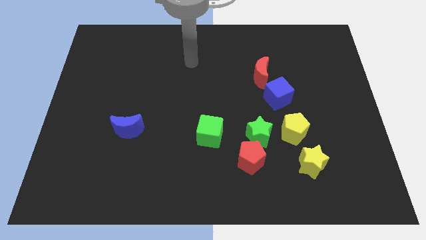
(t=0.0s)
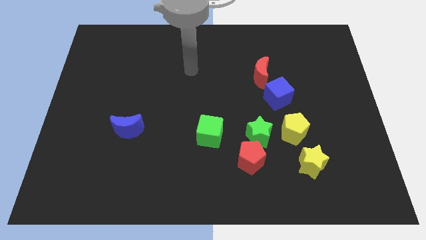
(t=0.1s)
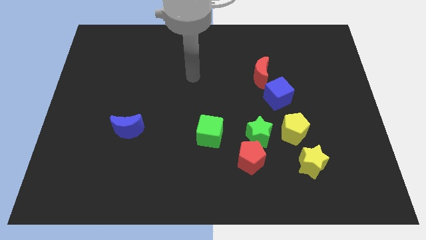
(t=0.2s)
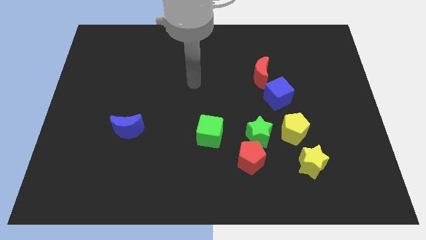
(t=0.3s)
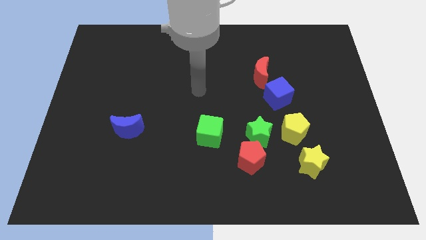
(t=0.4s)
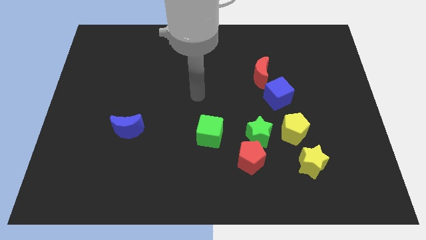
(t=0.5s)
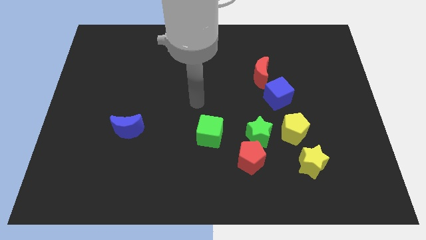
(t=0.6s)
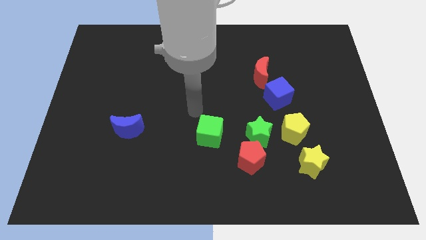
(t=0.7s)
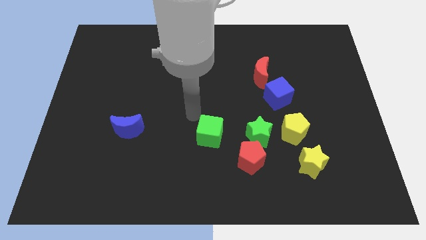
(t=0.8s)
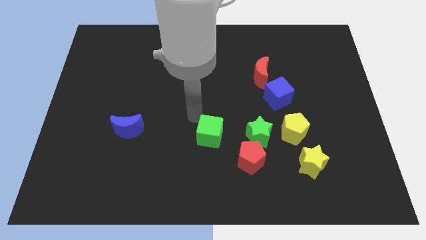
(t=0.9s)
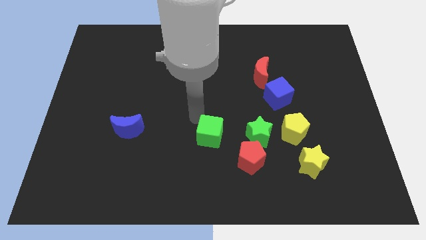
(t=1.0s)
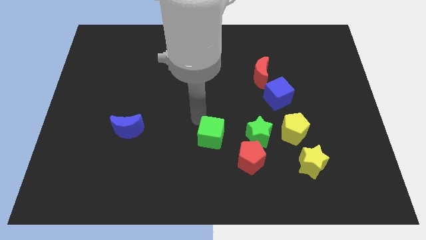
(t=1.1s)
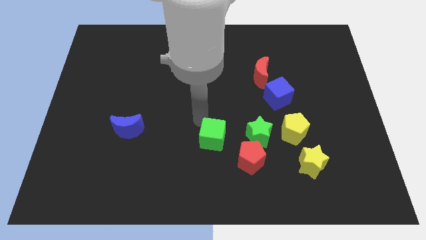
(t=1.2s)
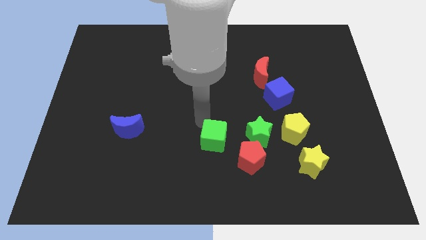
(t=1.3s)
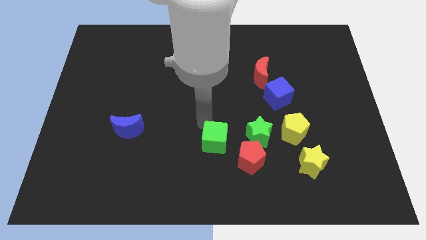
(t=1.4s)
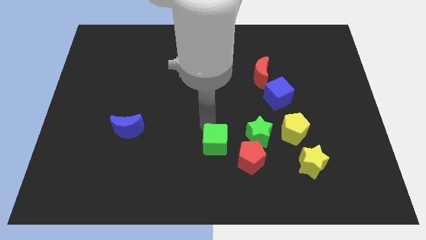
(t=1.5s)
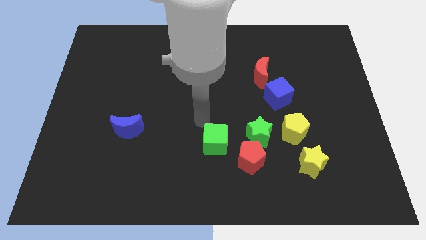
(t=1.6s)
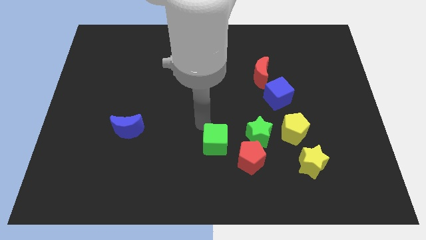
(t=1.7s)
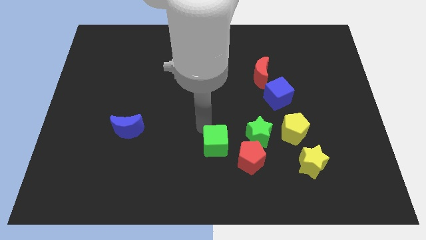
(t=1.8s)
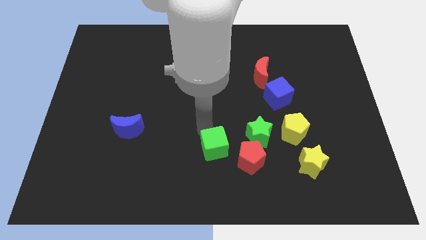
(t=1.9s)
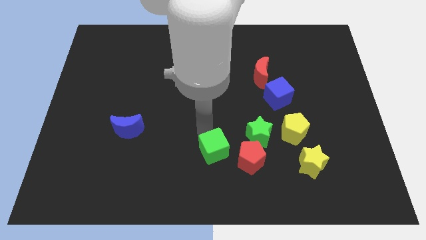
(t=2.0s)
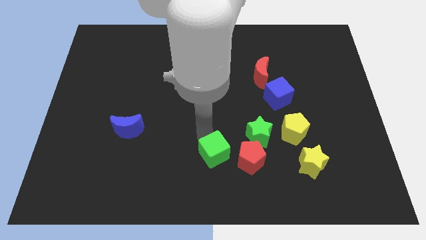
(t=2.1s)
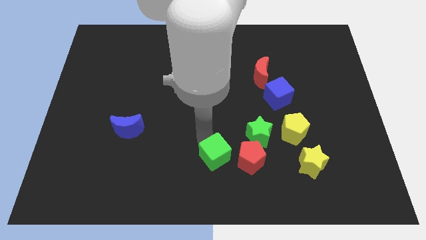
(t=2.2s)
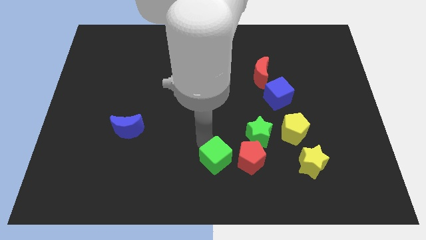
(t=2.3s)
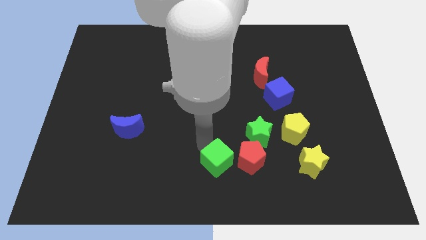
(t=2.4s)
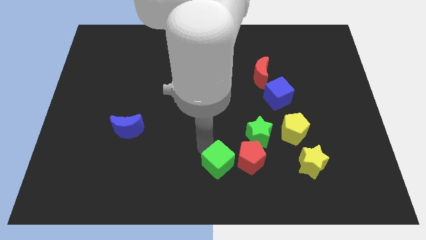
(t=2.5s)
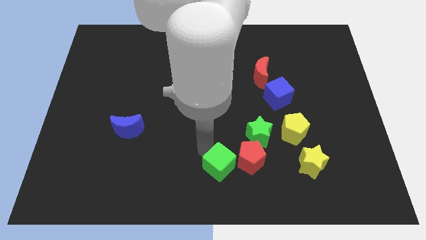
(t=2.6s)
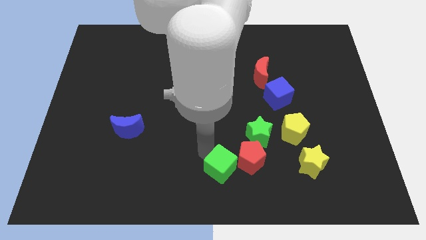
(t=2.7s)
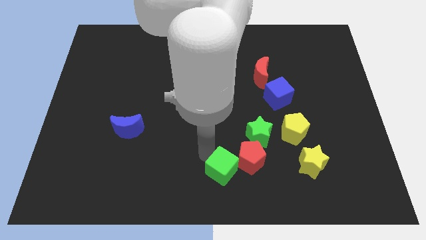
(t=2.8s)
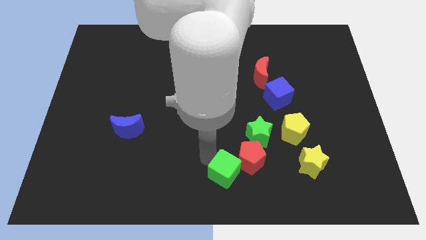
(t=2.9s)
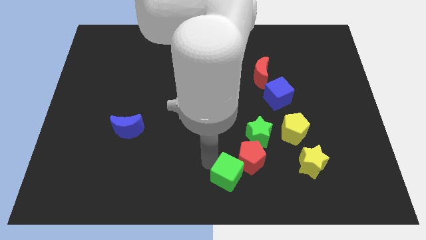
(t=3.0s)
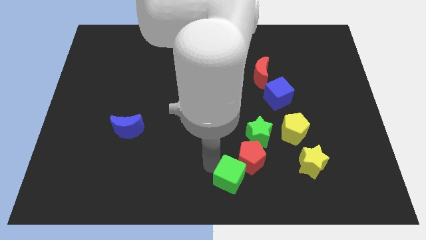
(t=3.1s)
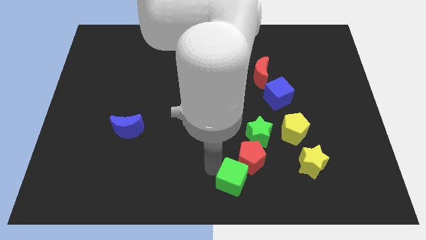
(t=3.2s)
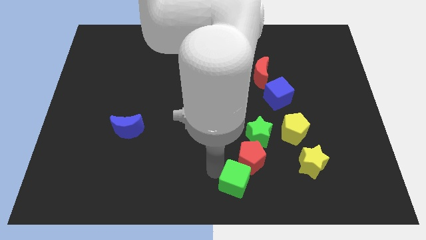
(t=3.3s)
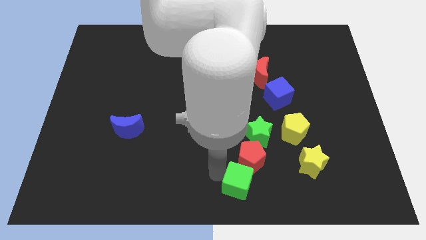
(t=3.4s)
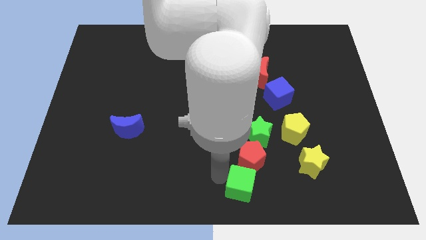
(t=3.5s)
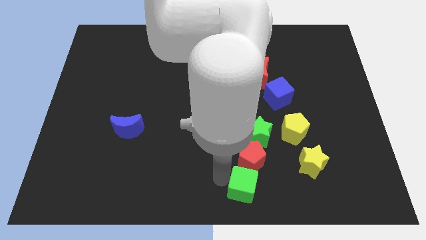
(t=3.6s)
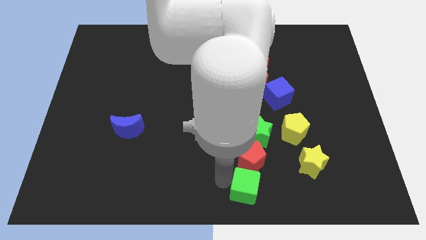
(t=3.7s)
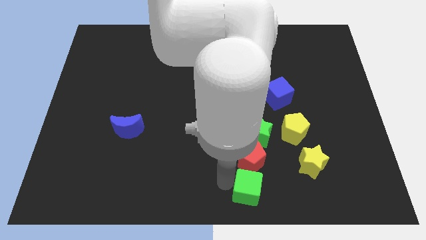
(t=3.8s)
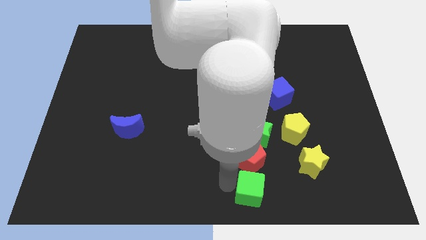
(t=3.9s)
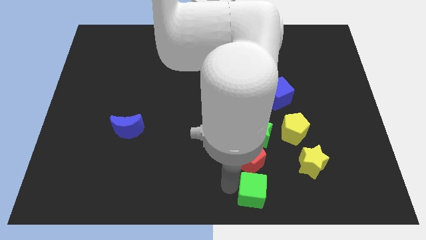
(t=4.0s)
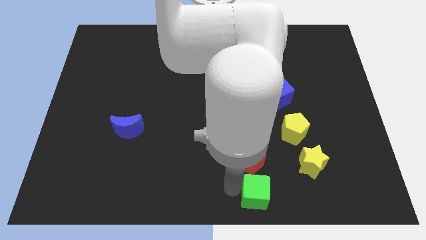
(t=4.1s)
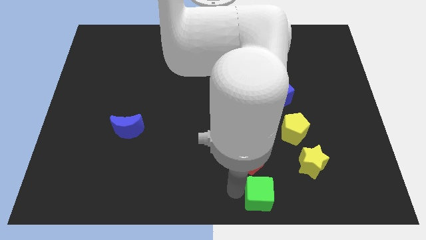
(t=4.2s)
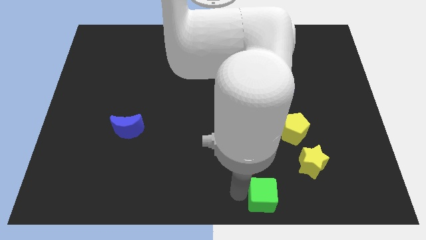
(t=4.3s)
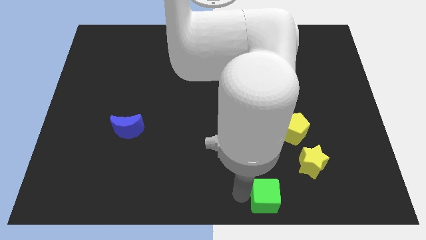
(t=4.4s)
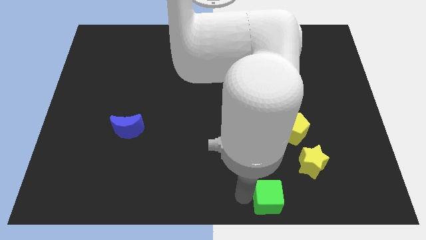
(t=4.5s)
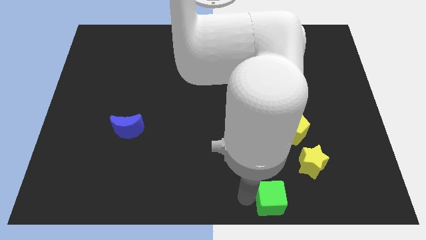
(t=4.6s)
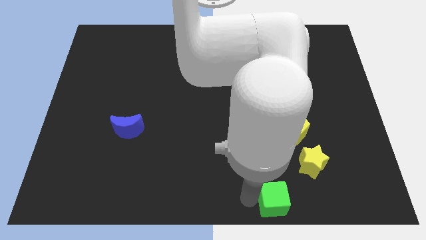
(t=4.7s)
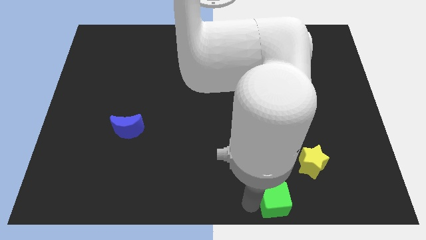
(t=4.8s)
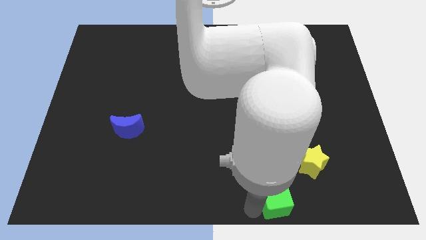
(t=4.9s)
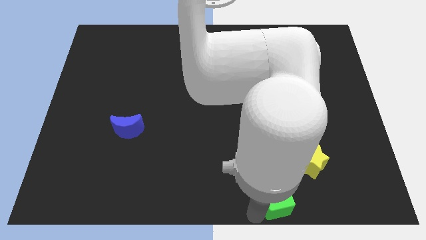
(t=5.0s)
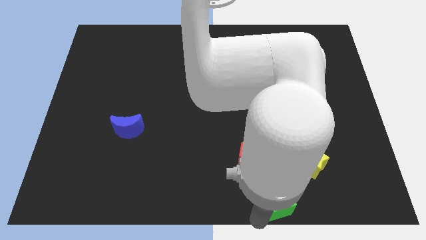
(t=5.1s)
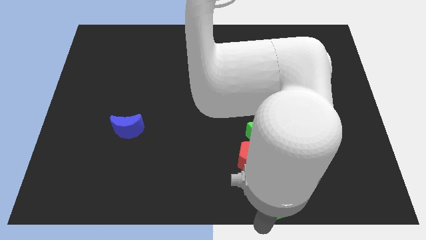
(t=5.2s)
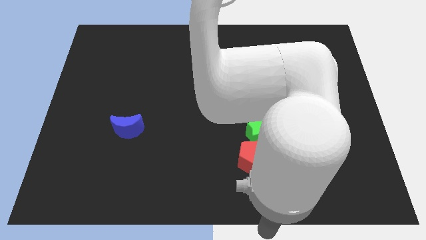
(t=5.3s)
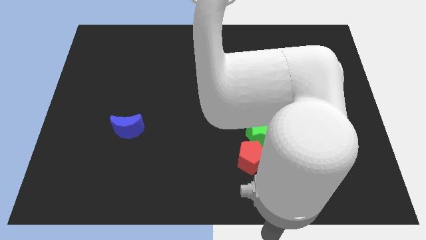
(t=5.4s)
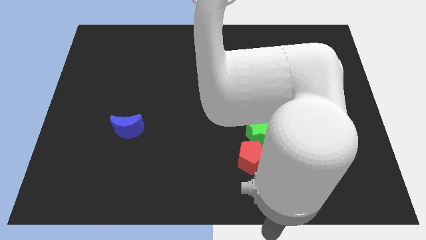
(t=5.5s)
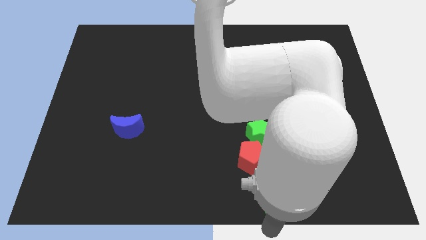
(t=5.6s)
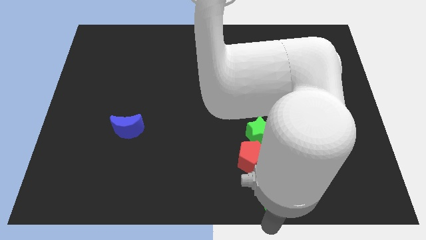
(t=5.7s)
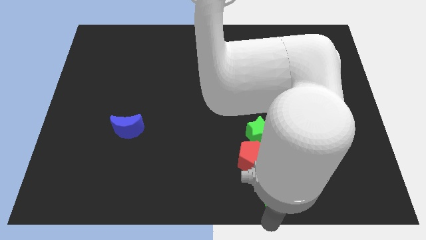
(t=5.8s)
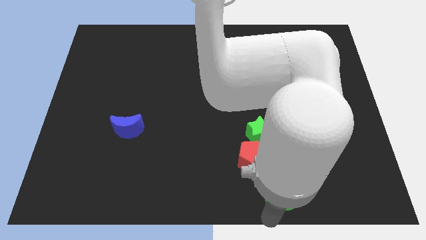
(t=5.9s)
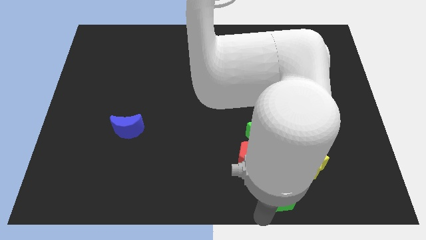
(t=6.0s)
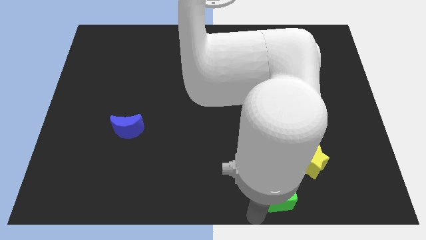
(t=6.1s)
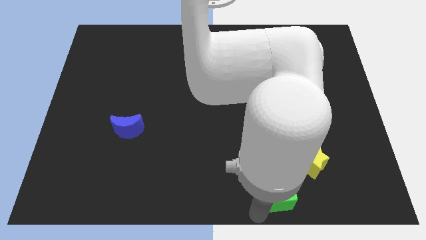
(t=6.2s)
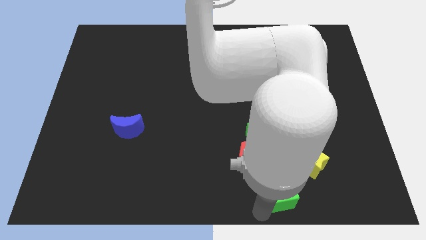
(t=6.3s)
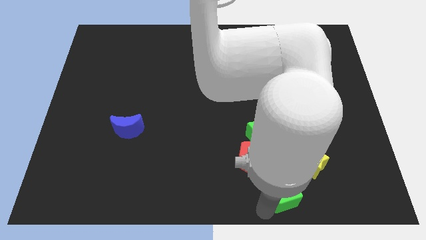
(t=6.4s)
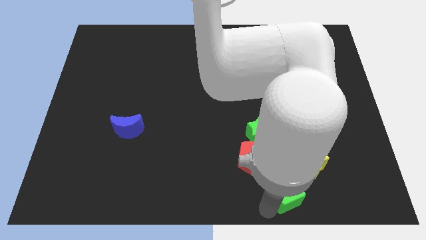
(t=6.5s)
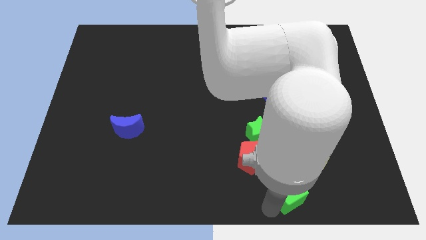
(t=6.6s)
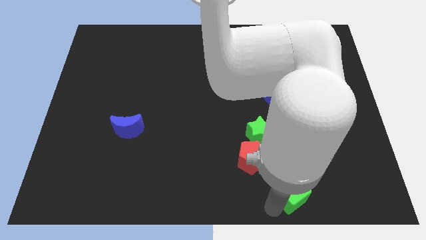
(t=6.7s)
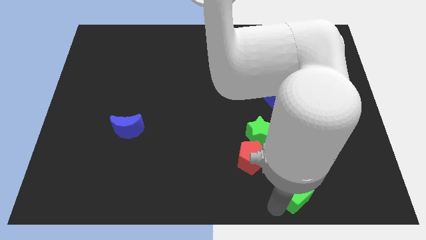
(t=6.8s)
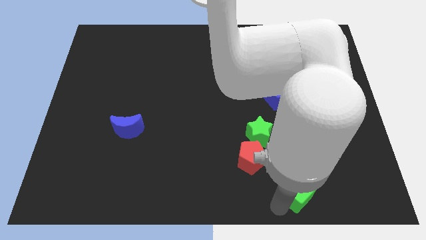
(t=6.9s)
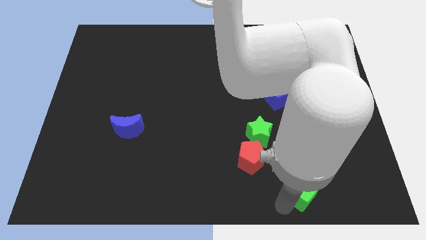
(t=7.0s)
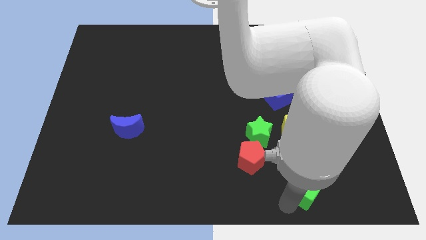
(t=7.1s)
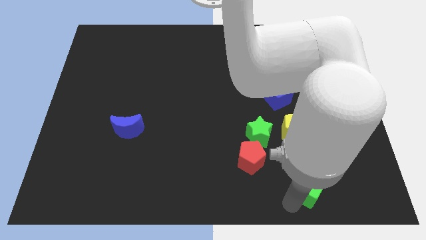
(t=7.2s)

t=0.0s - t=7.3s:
move the green cube close to the yellow star

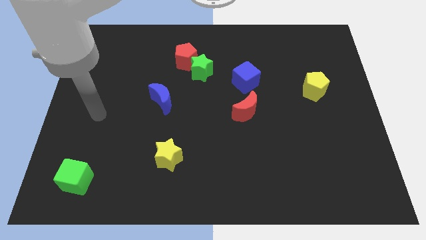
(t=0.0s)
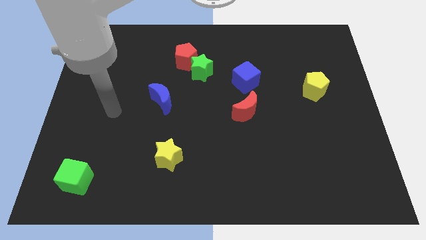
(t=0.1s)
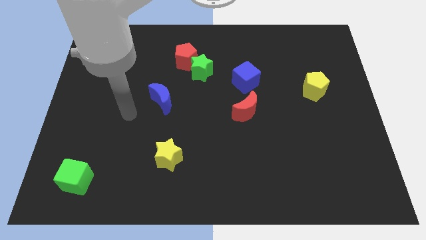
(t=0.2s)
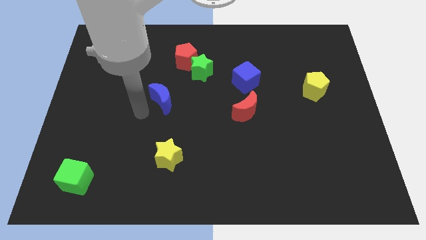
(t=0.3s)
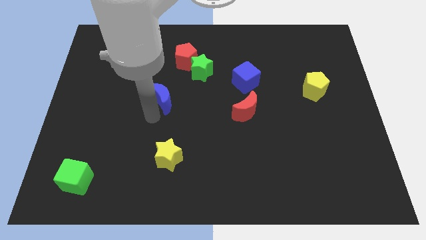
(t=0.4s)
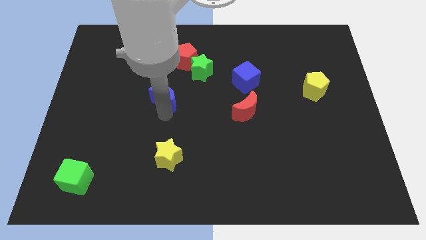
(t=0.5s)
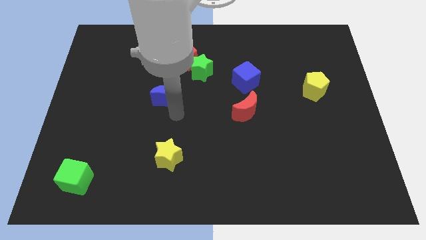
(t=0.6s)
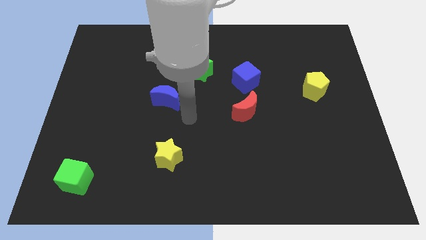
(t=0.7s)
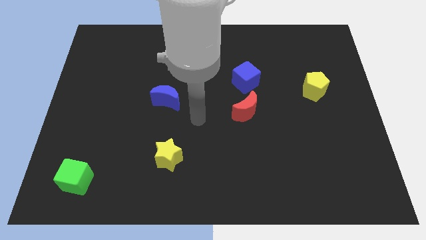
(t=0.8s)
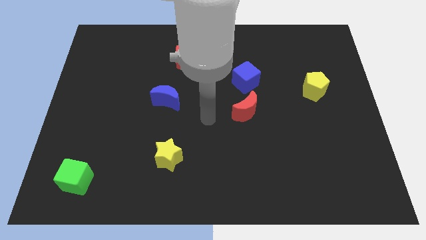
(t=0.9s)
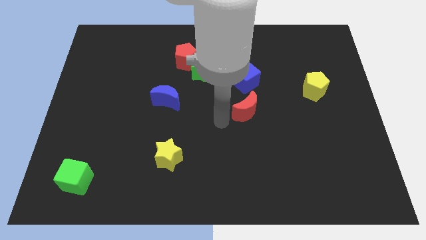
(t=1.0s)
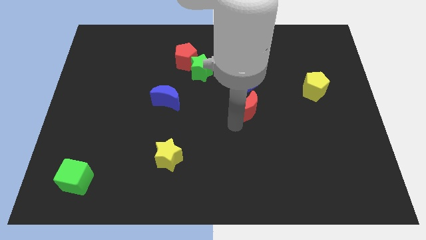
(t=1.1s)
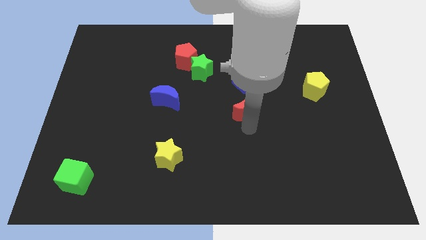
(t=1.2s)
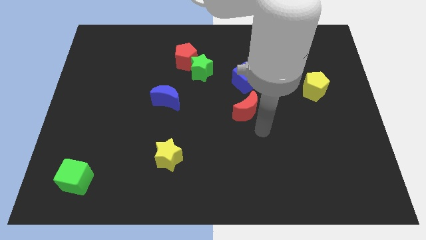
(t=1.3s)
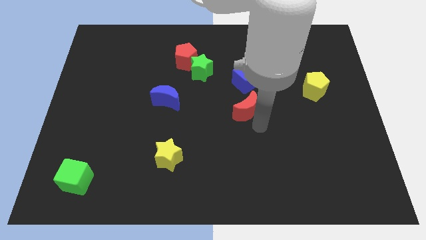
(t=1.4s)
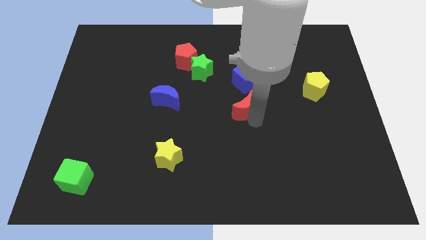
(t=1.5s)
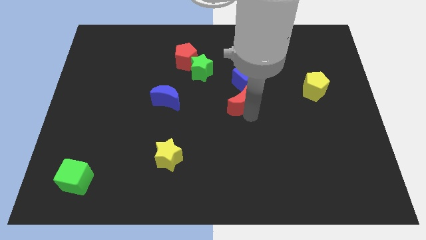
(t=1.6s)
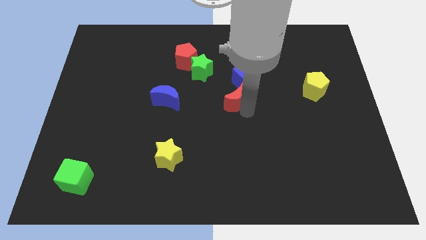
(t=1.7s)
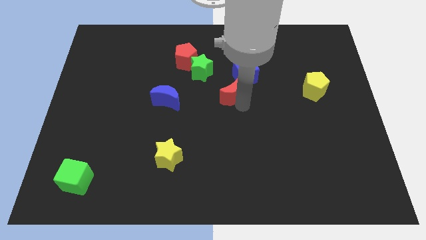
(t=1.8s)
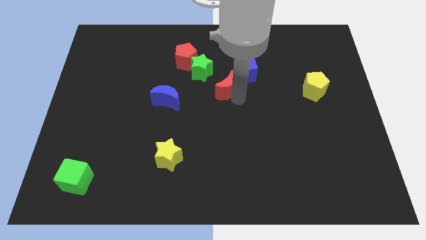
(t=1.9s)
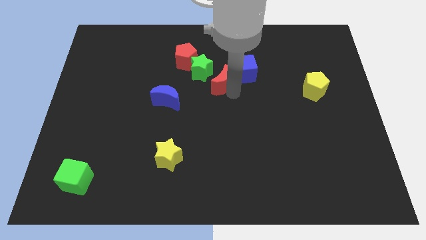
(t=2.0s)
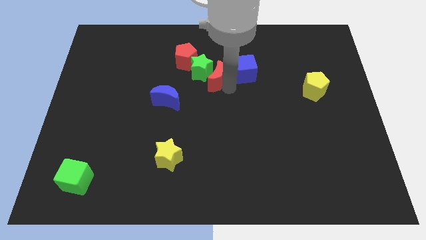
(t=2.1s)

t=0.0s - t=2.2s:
slide the red moon to the green star
